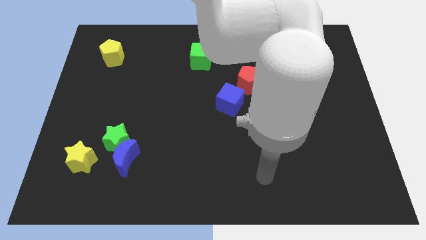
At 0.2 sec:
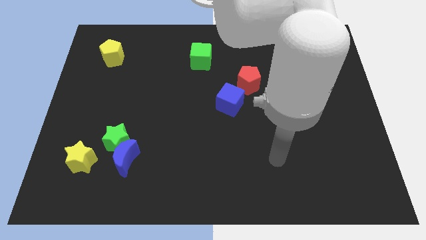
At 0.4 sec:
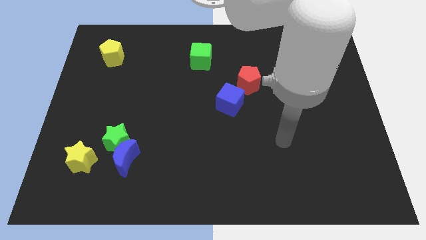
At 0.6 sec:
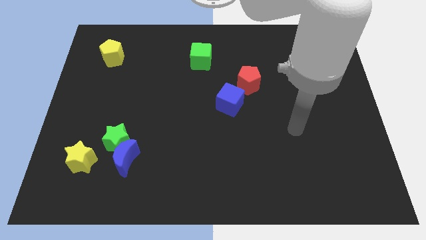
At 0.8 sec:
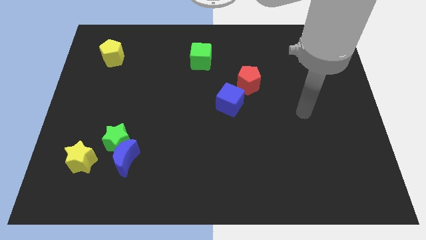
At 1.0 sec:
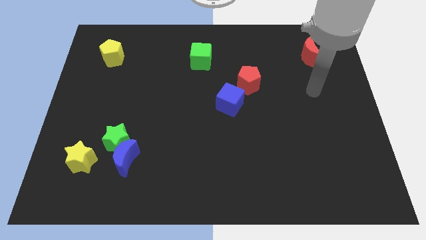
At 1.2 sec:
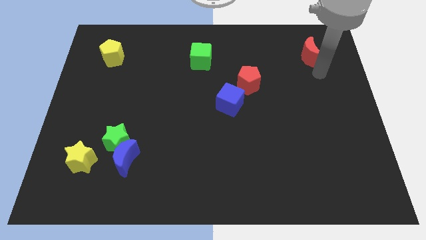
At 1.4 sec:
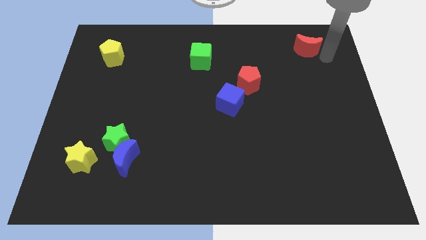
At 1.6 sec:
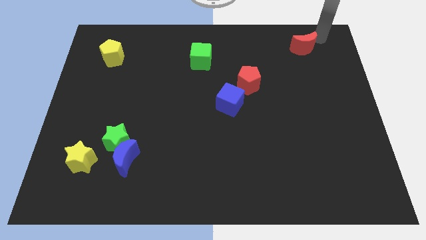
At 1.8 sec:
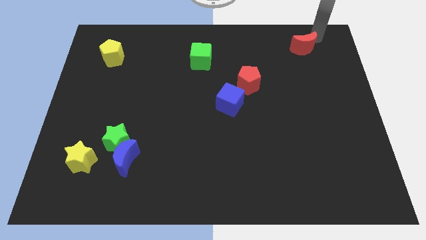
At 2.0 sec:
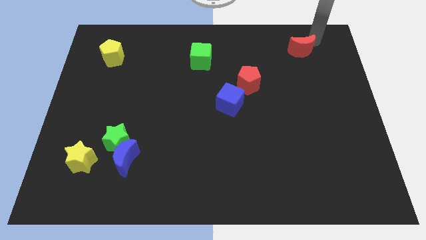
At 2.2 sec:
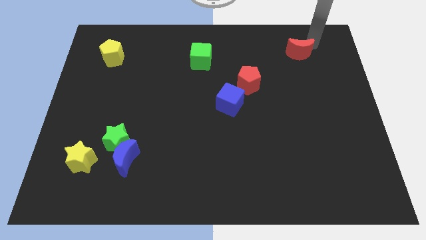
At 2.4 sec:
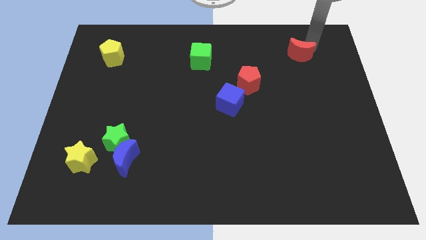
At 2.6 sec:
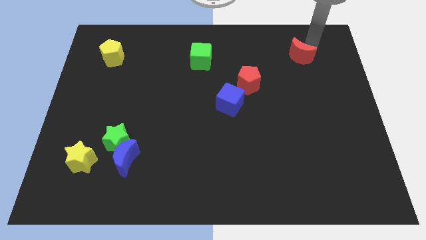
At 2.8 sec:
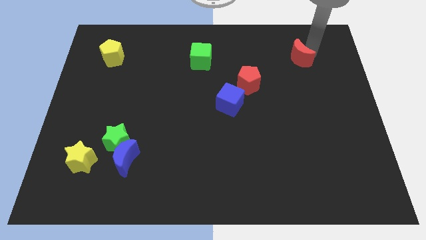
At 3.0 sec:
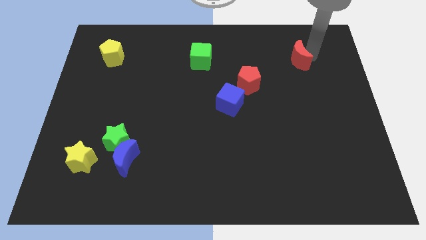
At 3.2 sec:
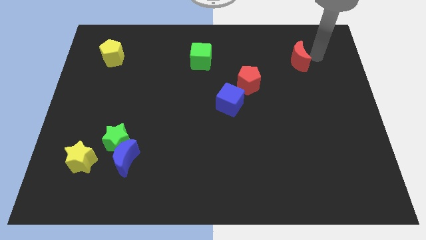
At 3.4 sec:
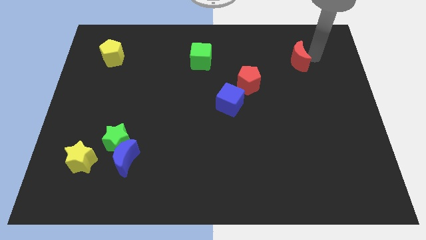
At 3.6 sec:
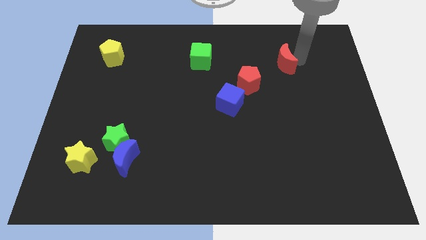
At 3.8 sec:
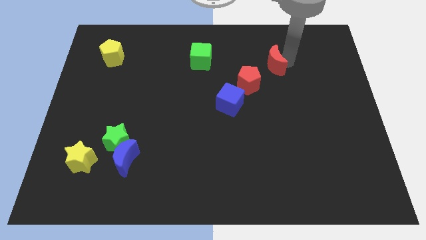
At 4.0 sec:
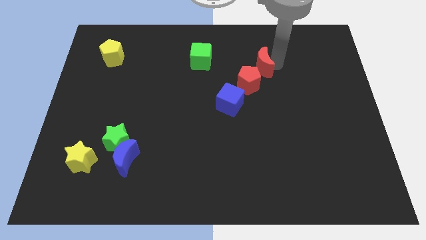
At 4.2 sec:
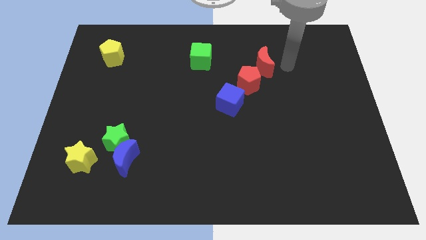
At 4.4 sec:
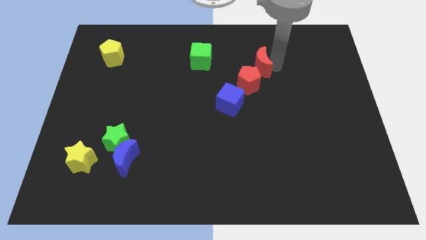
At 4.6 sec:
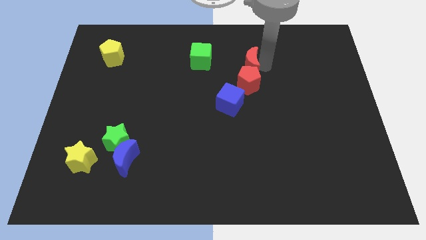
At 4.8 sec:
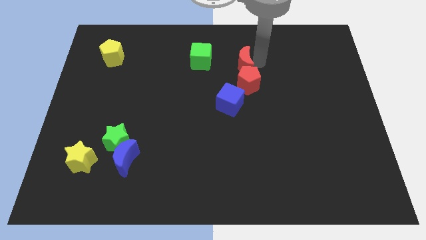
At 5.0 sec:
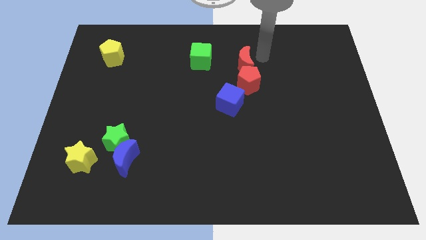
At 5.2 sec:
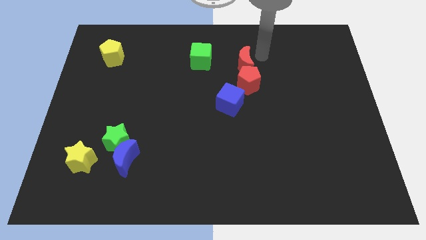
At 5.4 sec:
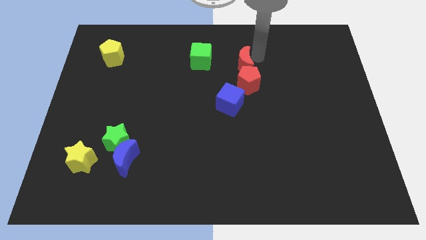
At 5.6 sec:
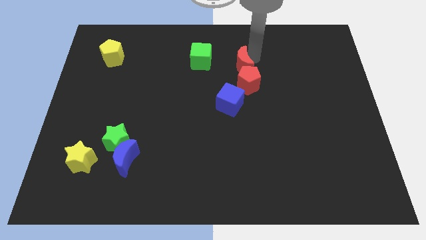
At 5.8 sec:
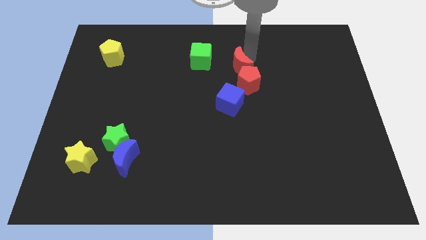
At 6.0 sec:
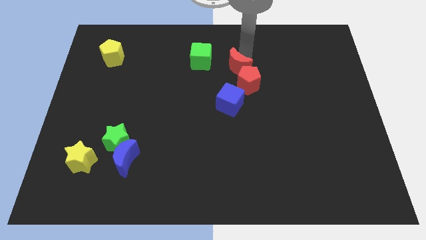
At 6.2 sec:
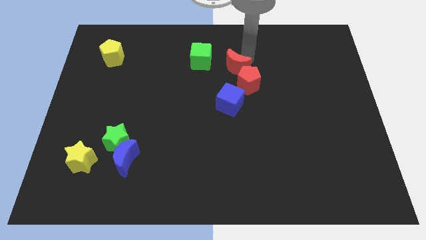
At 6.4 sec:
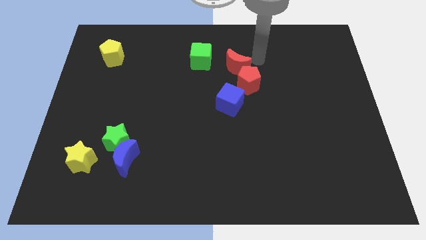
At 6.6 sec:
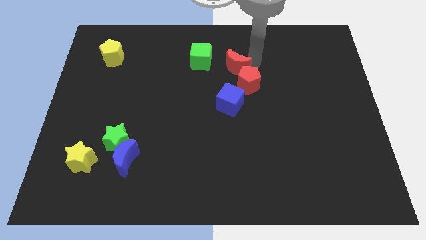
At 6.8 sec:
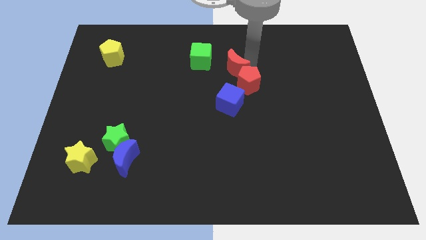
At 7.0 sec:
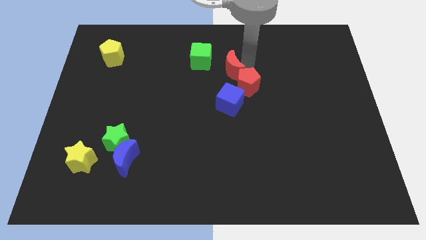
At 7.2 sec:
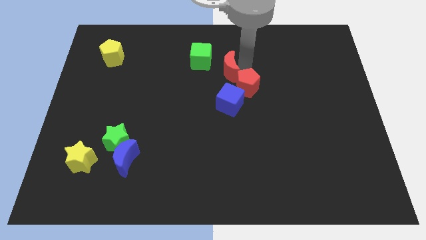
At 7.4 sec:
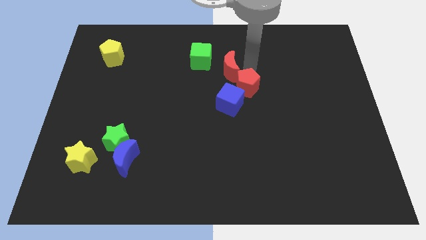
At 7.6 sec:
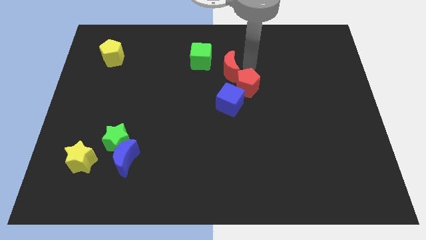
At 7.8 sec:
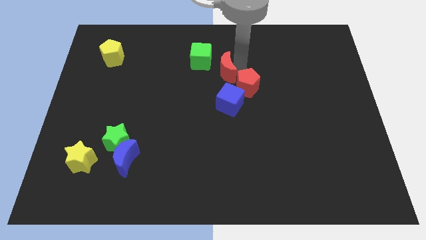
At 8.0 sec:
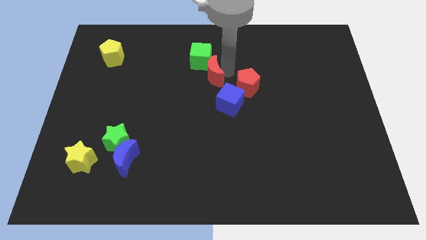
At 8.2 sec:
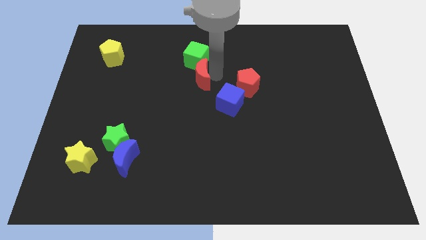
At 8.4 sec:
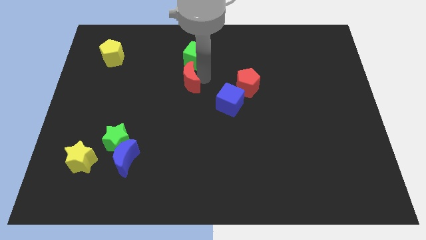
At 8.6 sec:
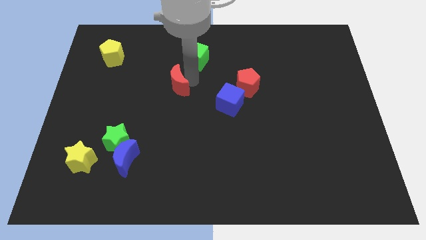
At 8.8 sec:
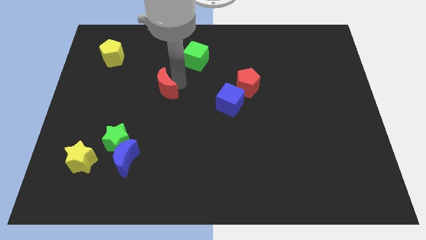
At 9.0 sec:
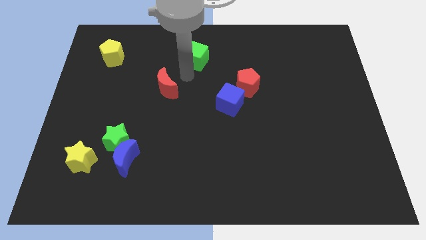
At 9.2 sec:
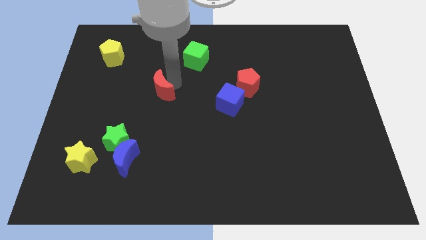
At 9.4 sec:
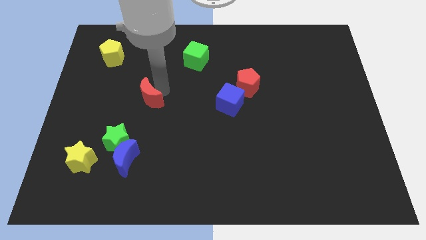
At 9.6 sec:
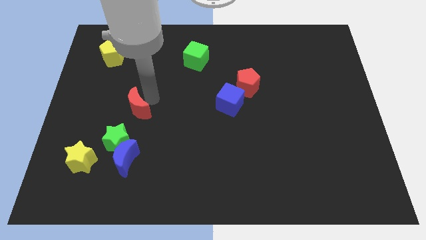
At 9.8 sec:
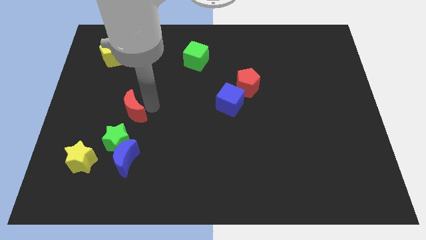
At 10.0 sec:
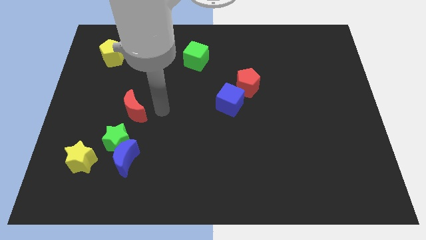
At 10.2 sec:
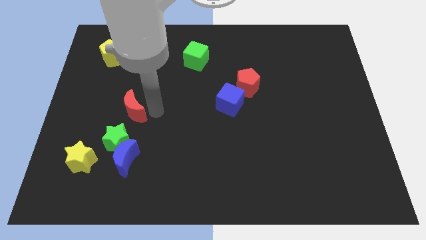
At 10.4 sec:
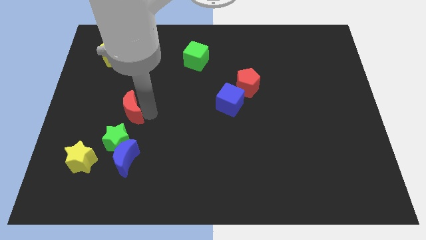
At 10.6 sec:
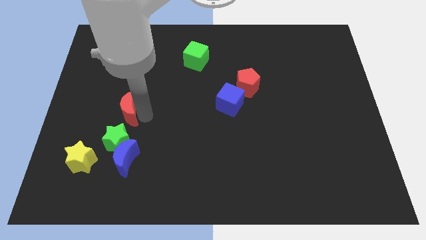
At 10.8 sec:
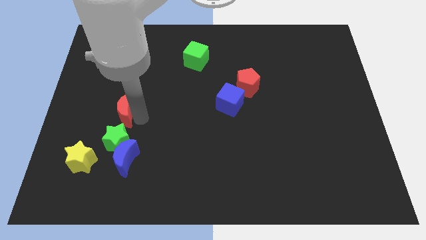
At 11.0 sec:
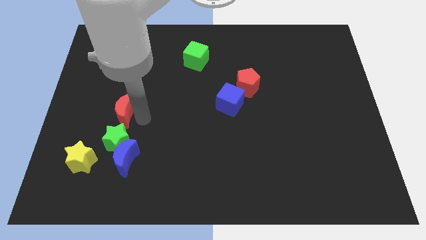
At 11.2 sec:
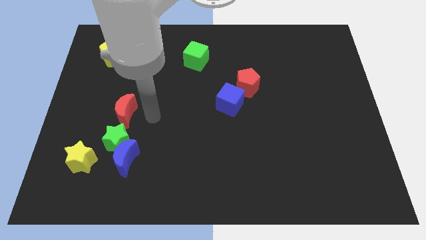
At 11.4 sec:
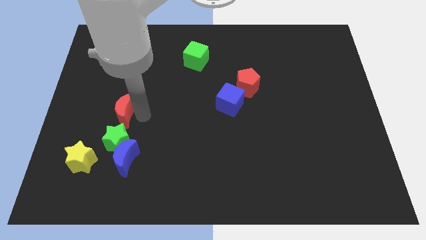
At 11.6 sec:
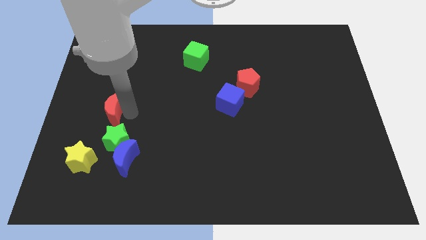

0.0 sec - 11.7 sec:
move the red moon above the yellow star

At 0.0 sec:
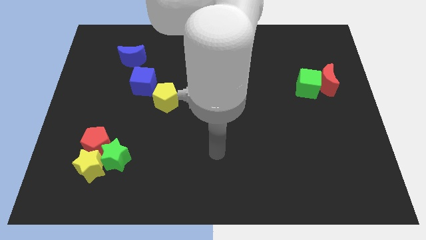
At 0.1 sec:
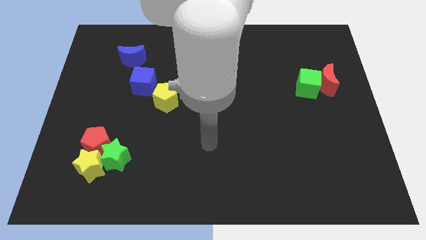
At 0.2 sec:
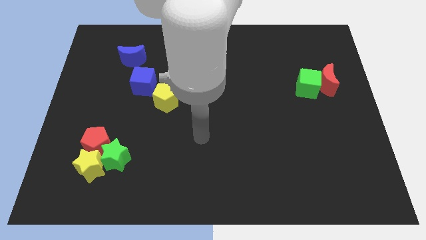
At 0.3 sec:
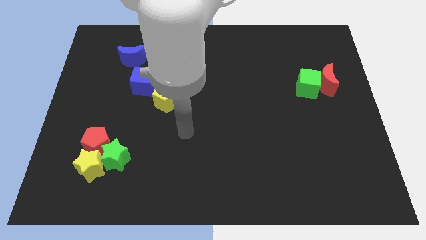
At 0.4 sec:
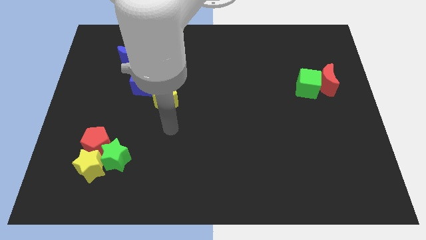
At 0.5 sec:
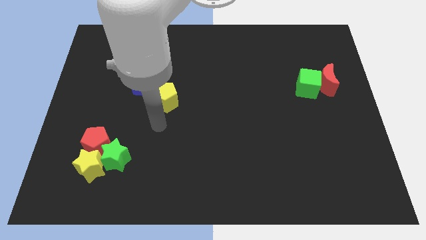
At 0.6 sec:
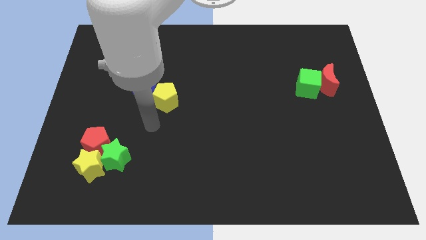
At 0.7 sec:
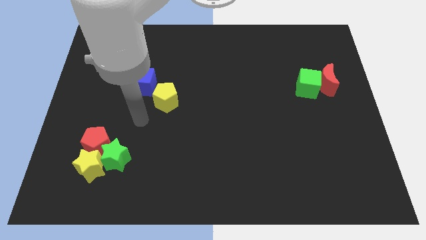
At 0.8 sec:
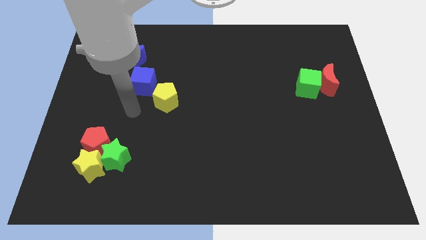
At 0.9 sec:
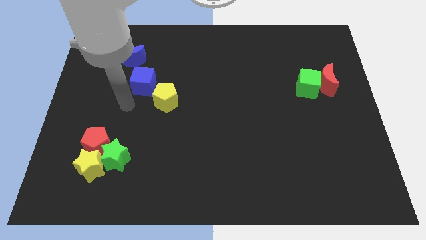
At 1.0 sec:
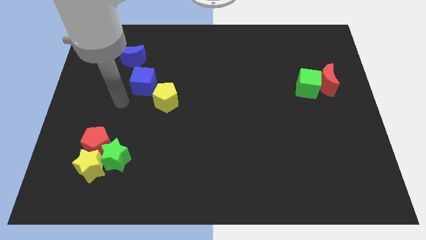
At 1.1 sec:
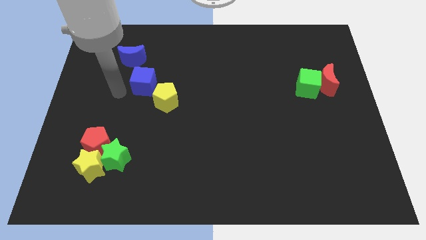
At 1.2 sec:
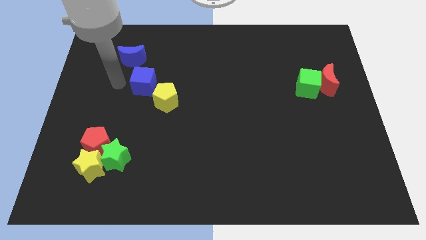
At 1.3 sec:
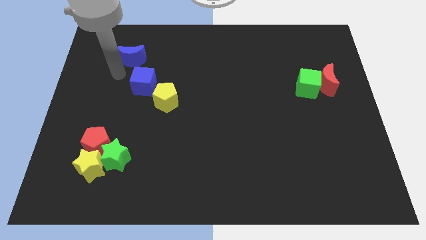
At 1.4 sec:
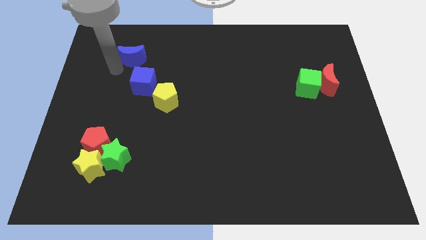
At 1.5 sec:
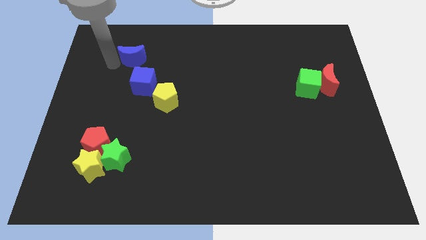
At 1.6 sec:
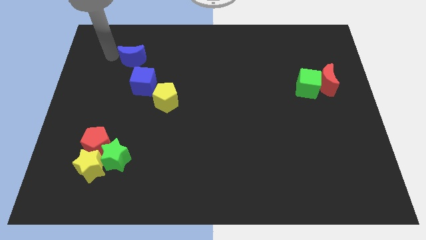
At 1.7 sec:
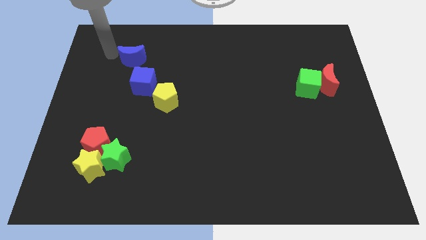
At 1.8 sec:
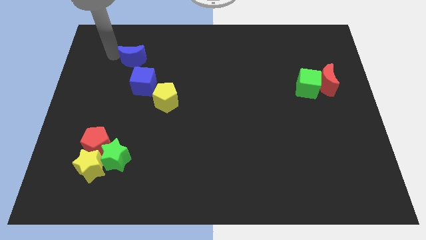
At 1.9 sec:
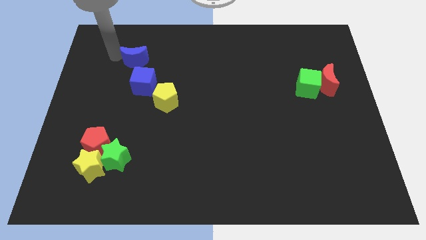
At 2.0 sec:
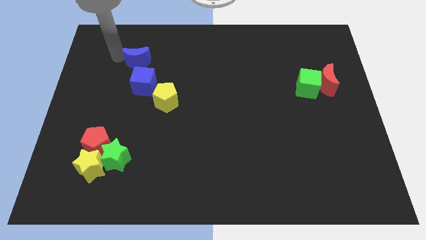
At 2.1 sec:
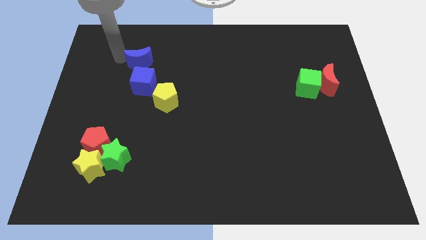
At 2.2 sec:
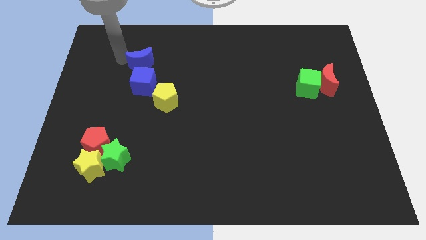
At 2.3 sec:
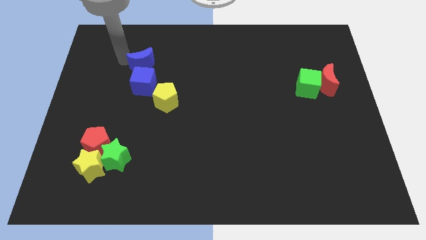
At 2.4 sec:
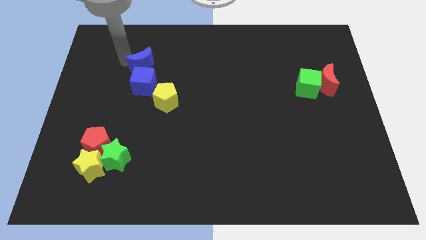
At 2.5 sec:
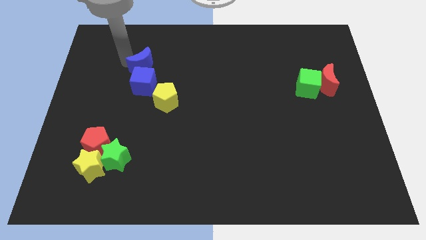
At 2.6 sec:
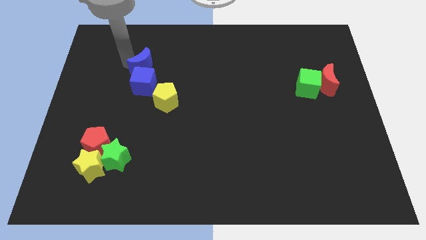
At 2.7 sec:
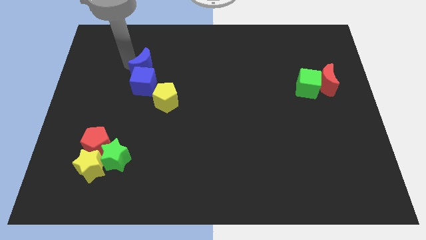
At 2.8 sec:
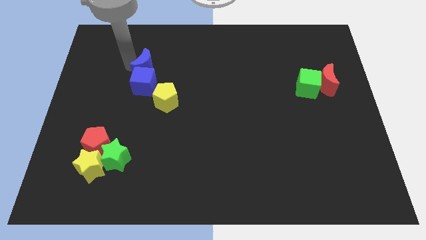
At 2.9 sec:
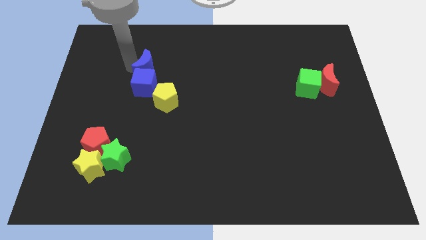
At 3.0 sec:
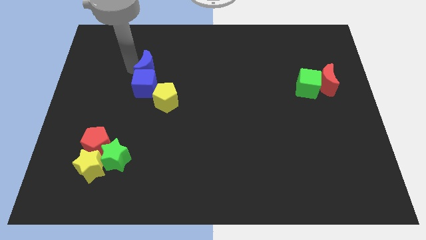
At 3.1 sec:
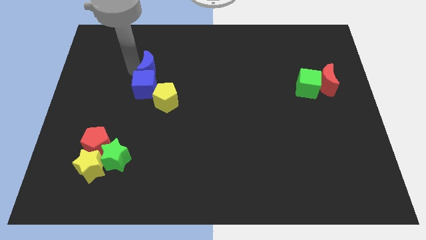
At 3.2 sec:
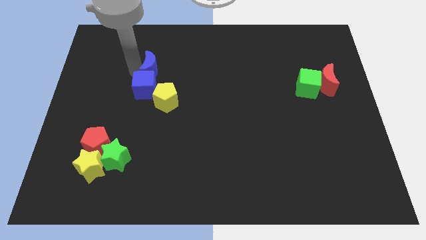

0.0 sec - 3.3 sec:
slide the blue moon to the top side of the yellow pentagon
